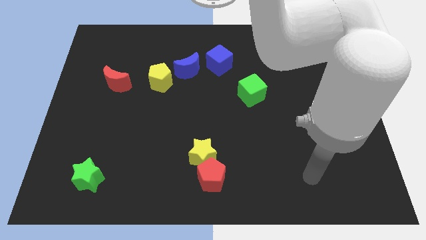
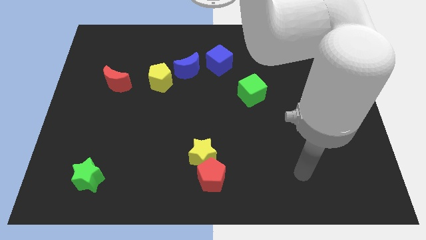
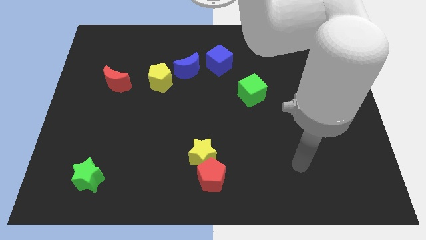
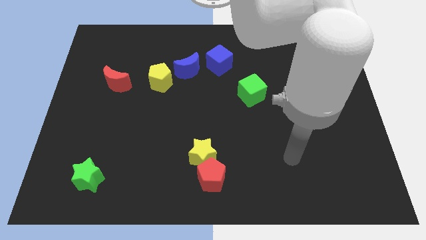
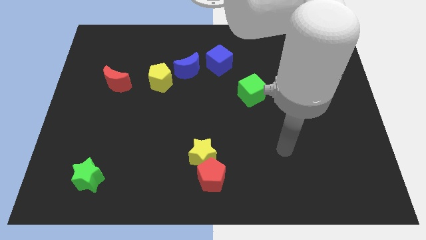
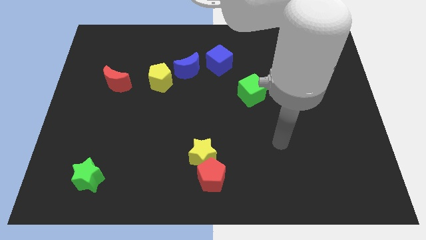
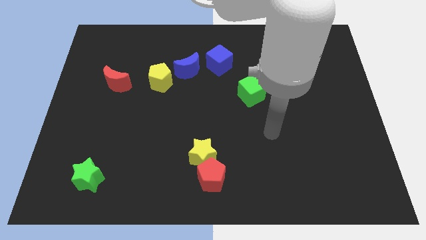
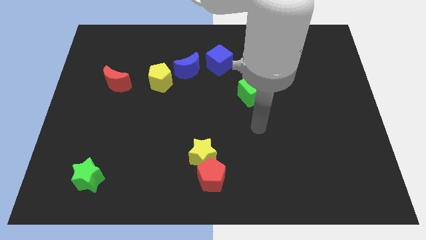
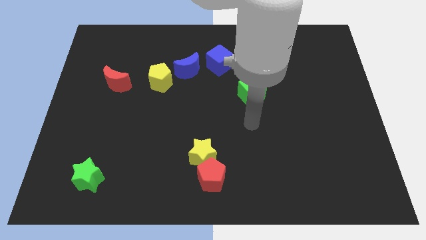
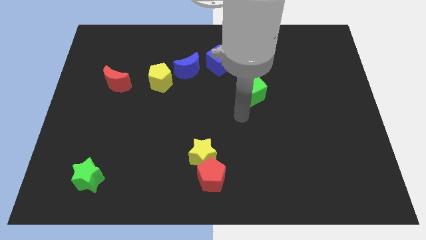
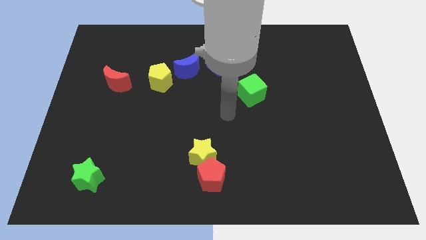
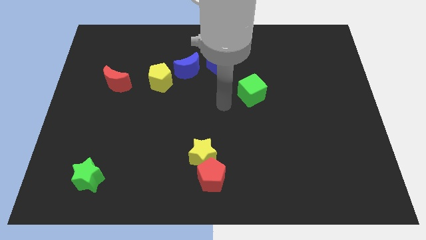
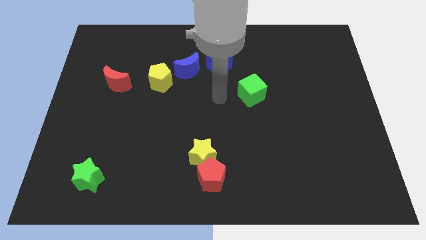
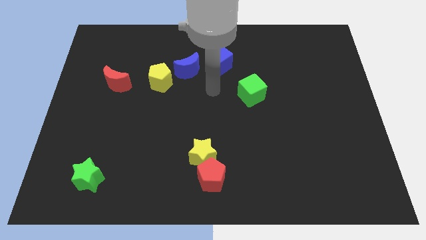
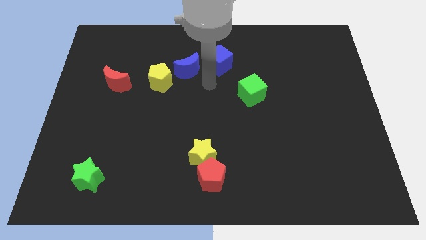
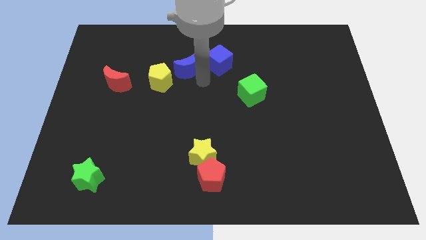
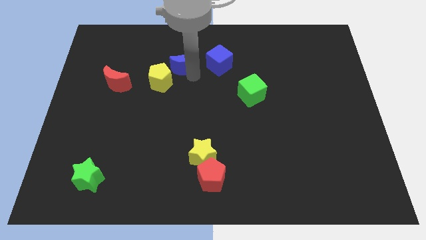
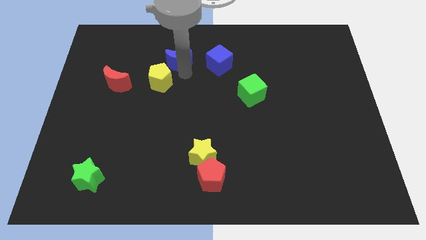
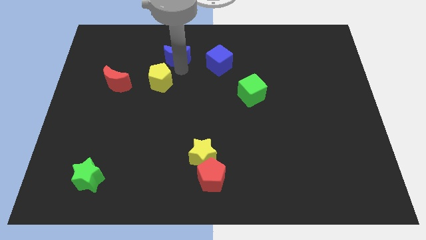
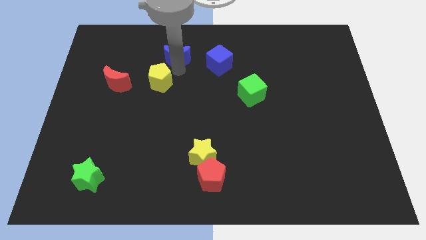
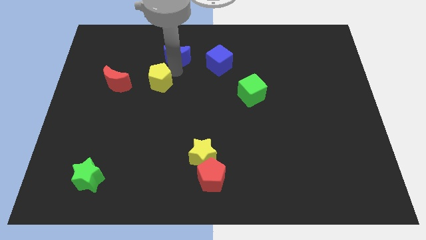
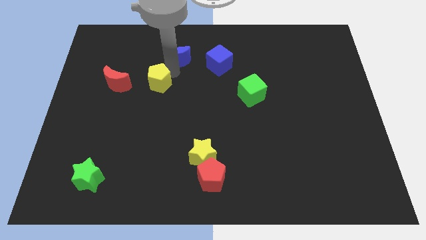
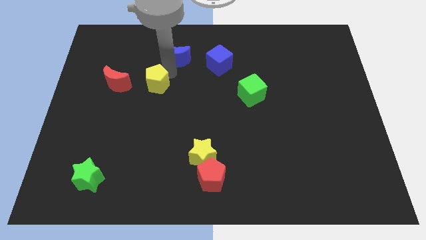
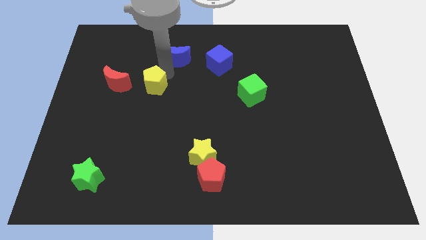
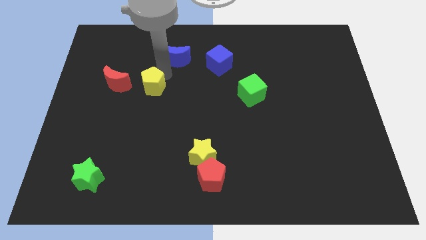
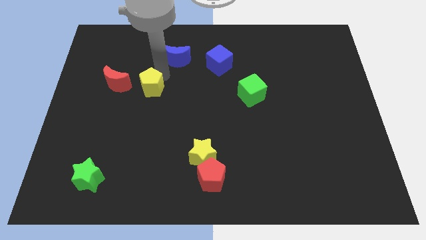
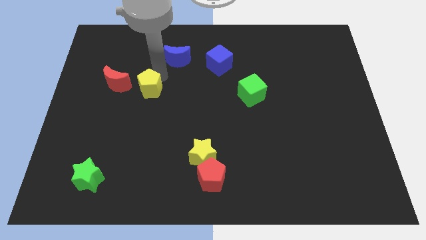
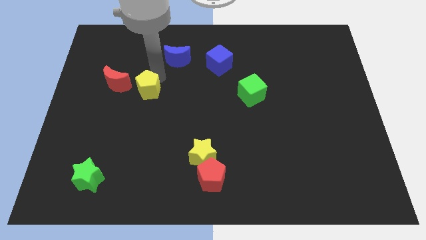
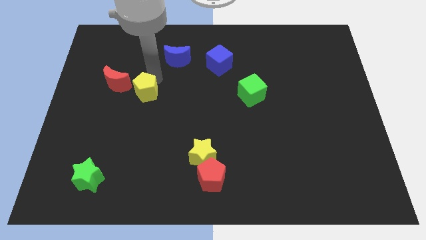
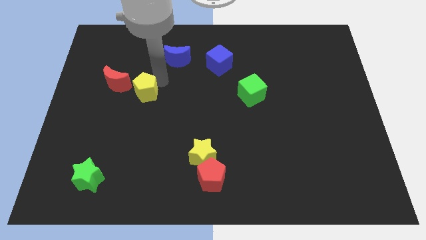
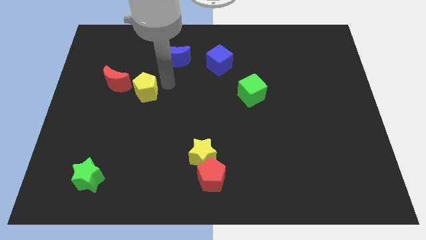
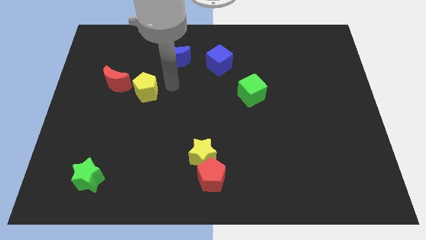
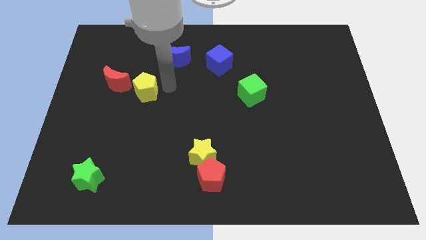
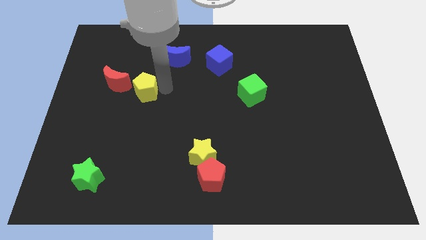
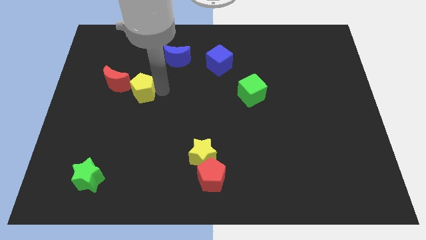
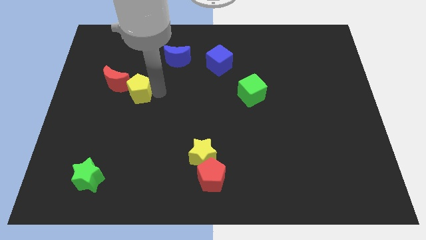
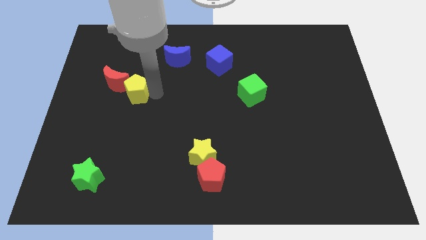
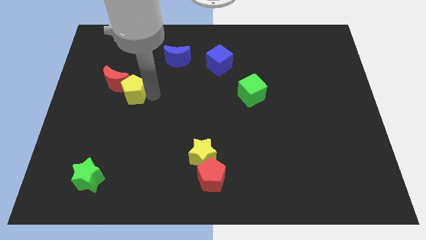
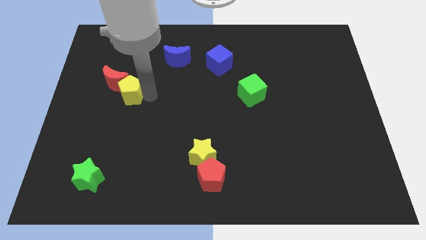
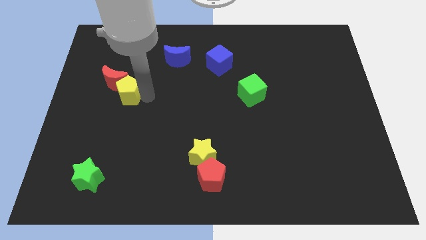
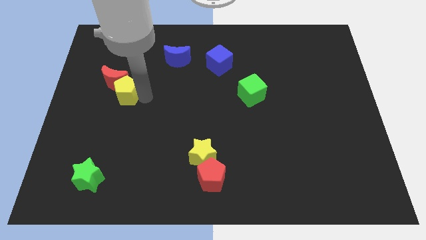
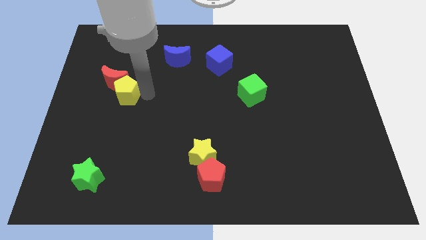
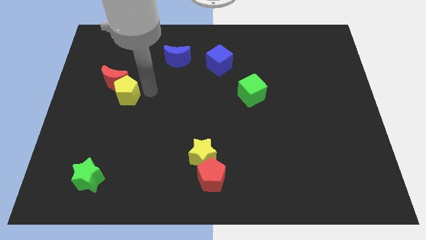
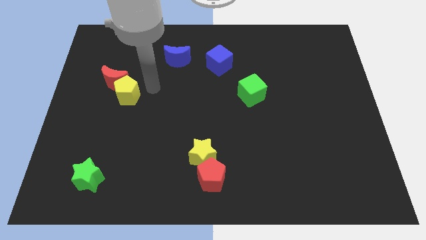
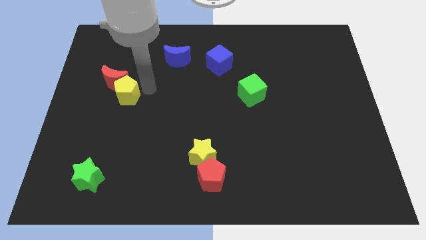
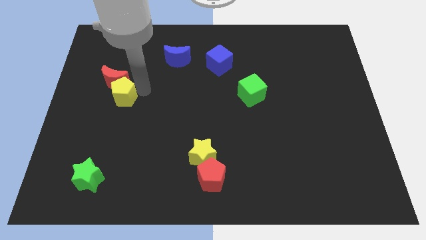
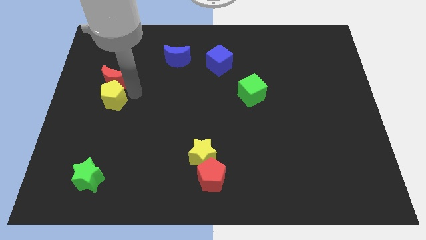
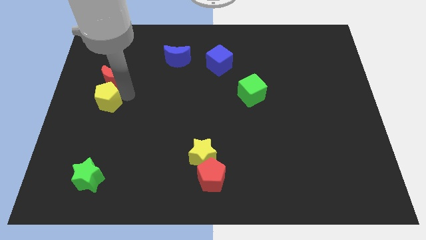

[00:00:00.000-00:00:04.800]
put the yellow pentagon to the center left

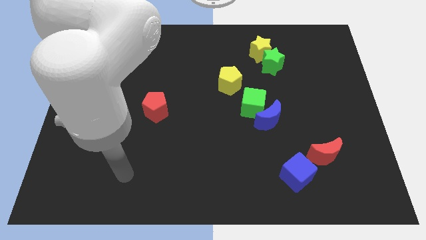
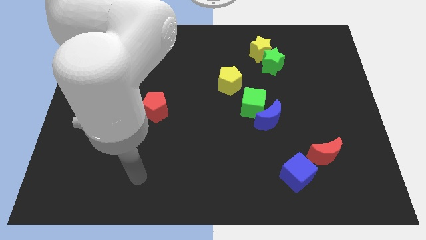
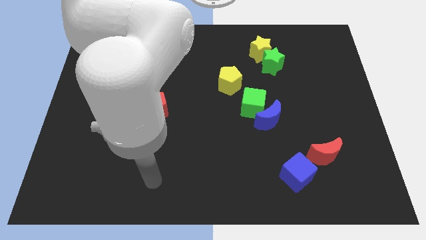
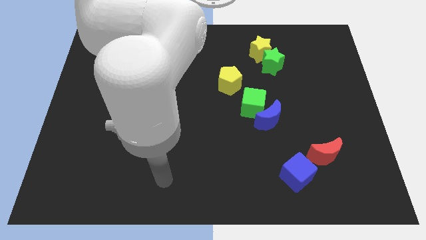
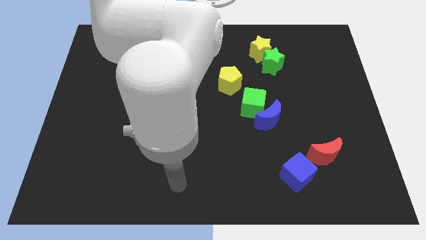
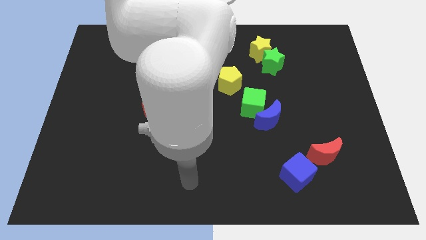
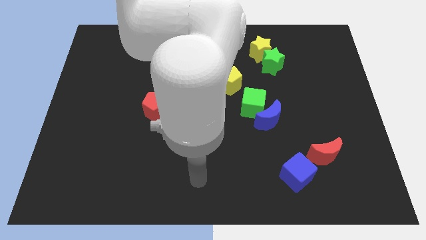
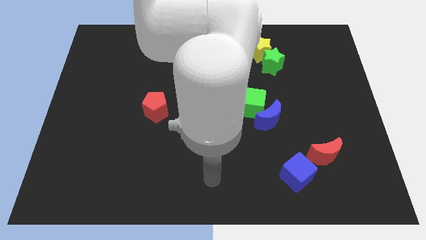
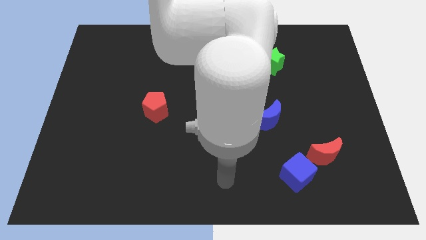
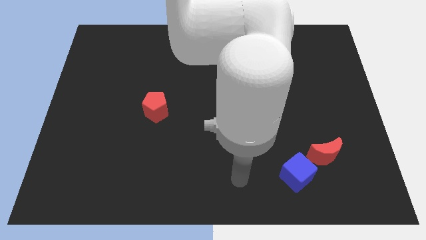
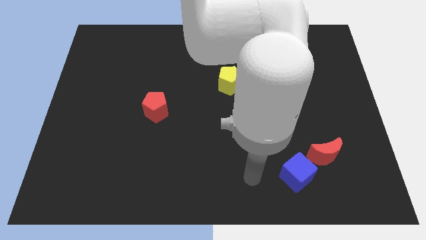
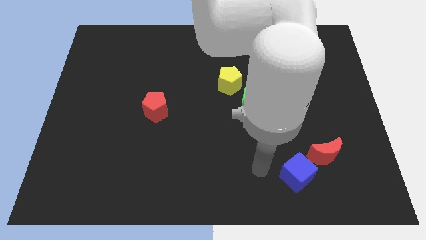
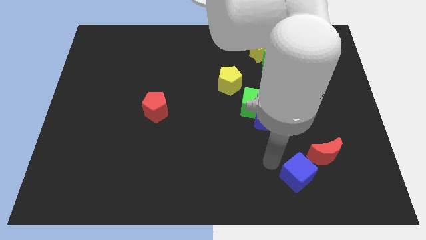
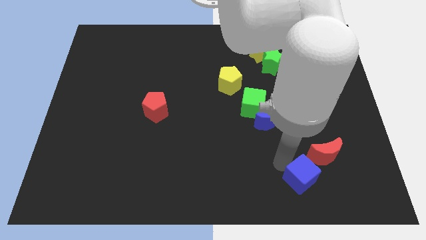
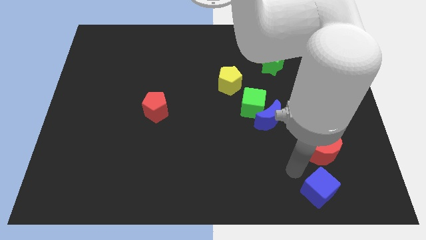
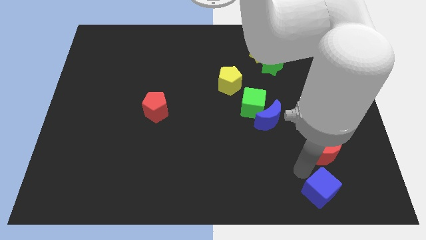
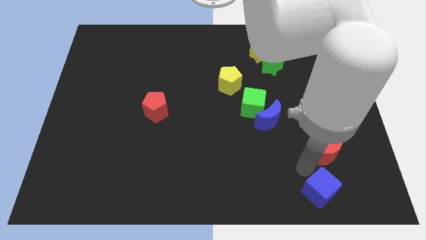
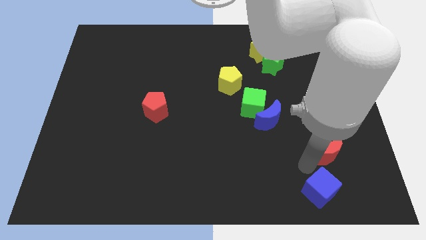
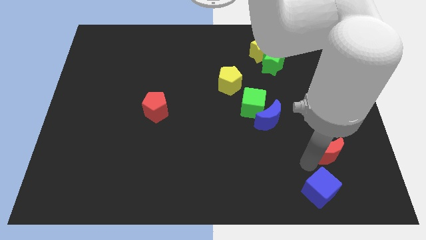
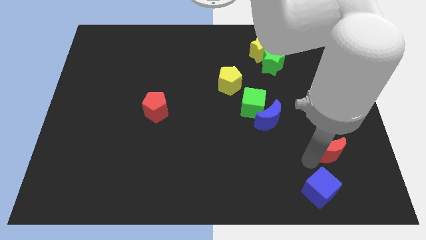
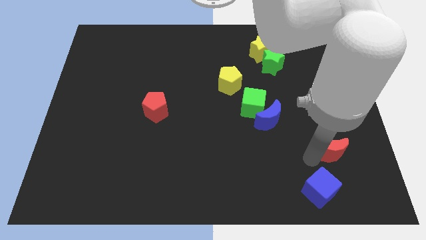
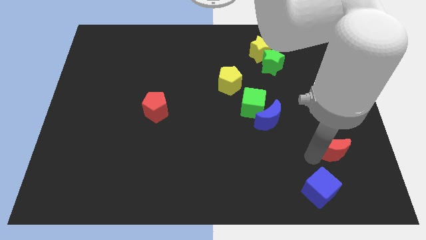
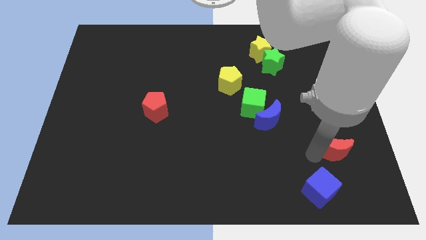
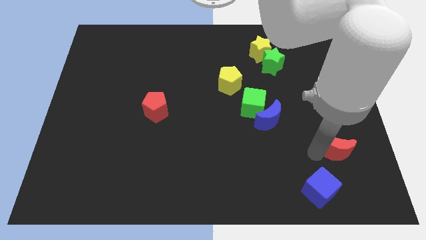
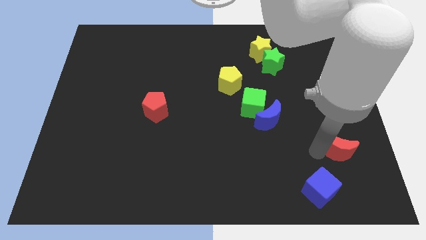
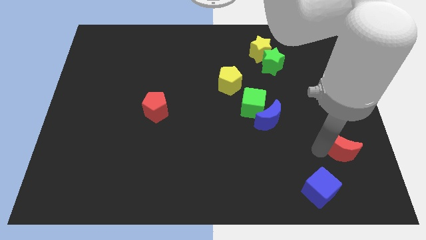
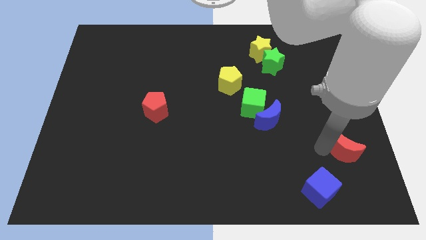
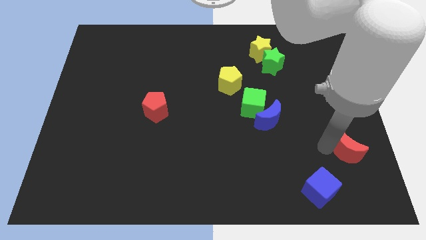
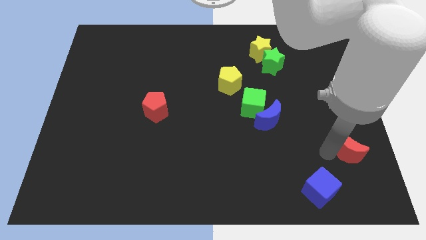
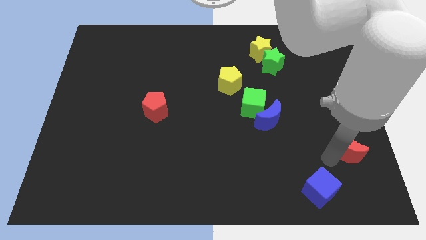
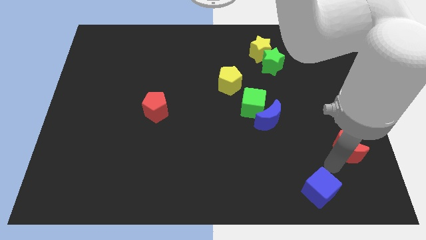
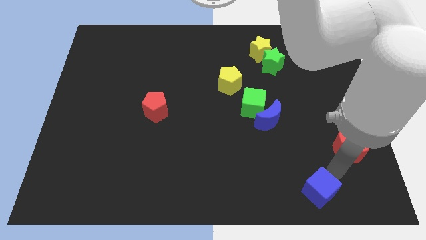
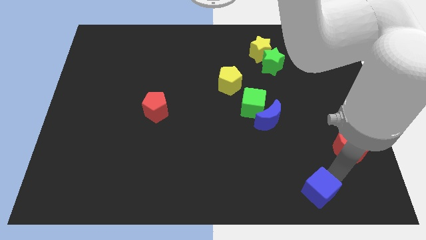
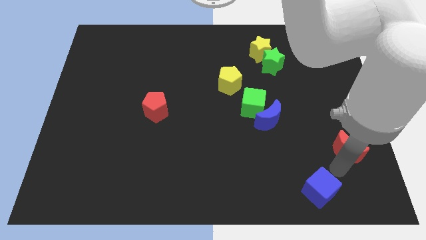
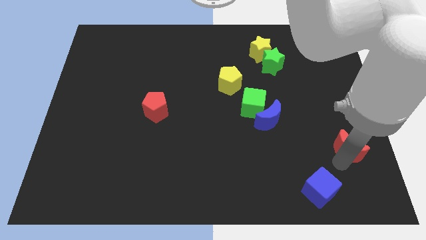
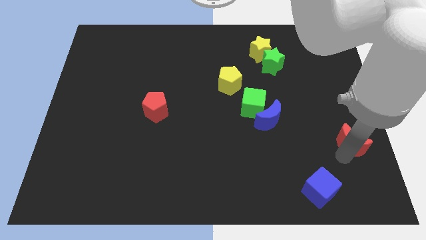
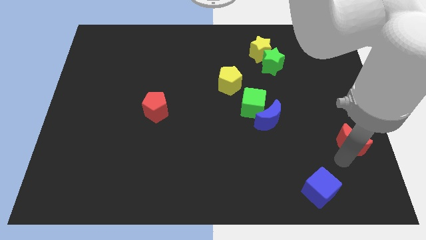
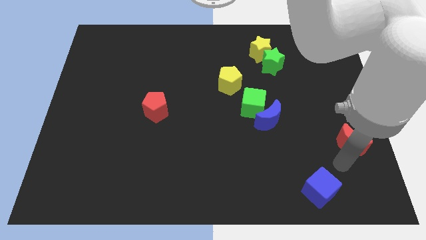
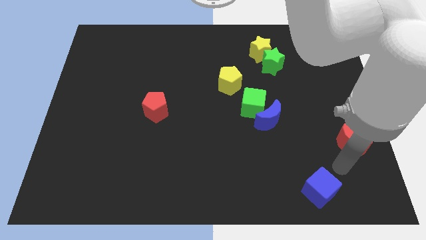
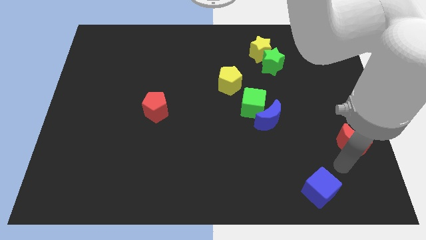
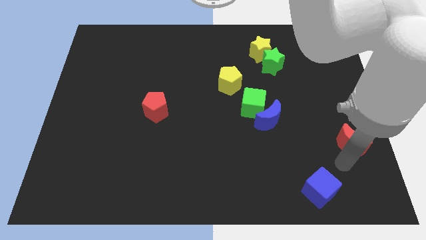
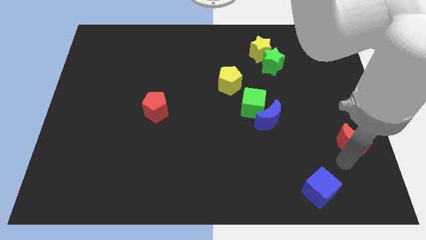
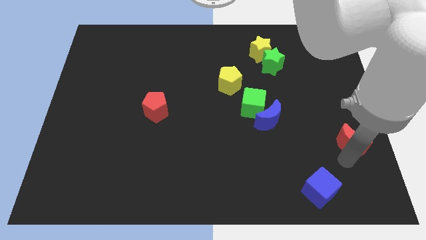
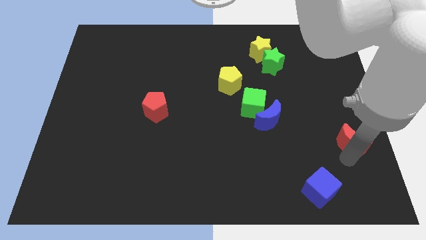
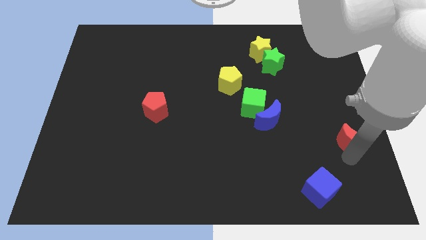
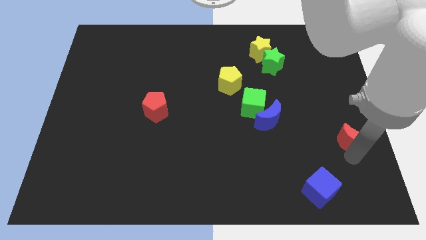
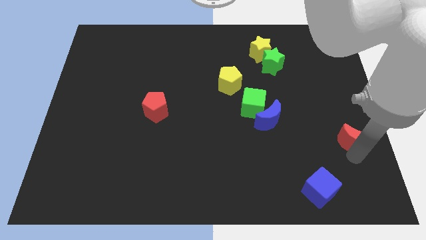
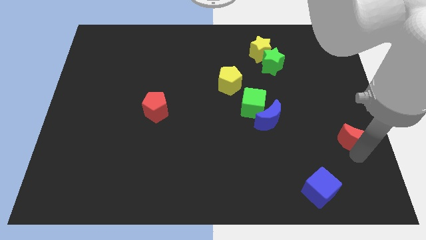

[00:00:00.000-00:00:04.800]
slide the red moon to the right side
